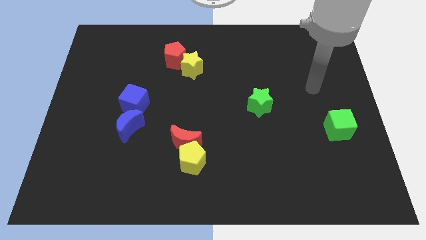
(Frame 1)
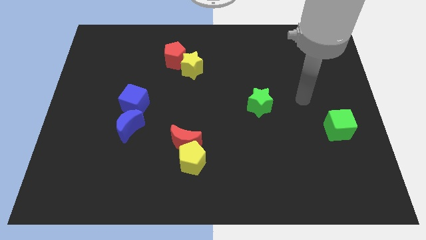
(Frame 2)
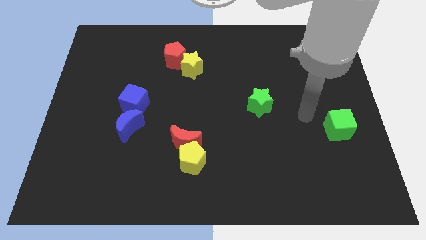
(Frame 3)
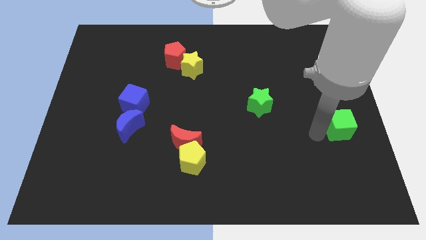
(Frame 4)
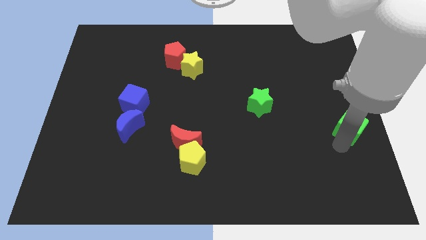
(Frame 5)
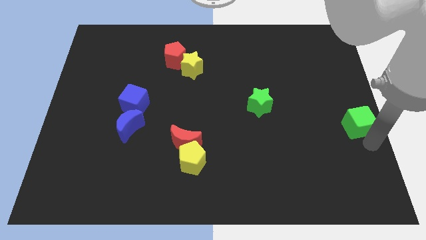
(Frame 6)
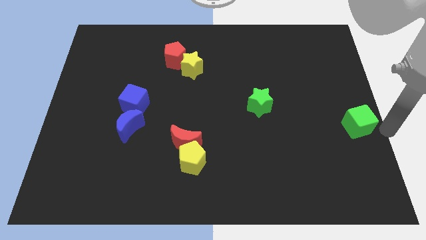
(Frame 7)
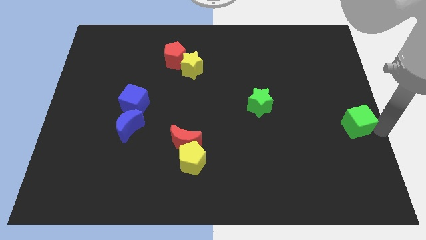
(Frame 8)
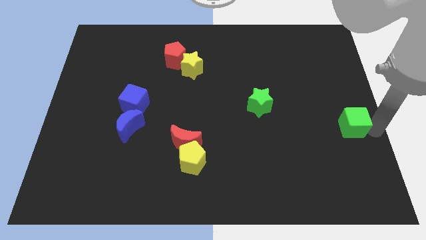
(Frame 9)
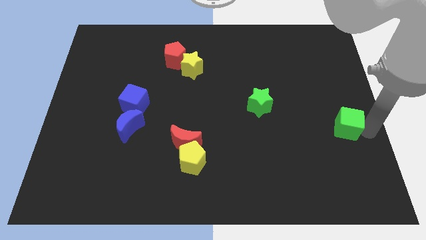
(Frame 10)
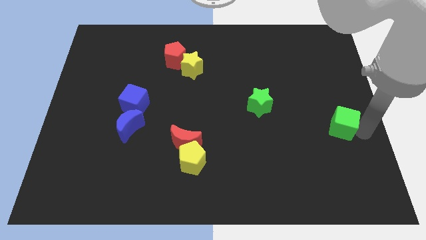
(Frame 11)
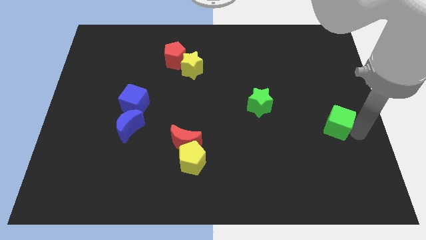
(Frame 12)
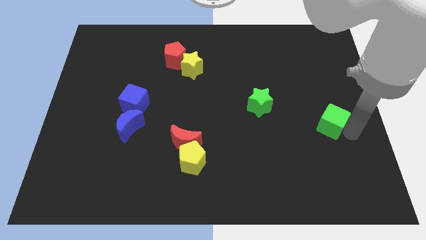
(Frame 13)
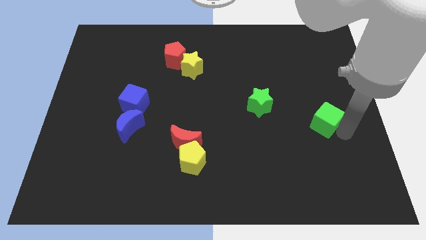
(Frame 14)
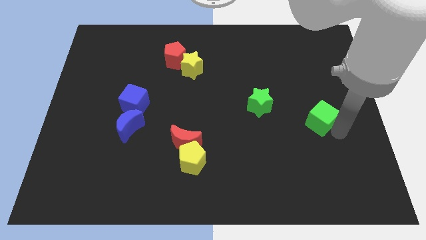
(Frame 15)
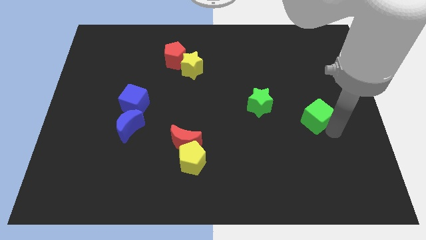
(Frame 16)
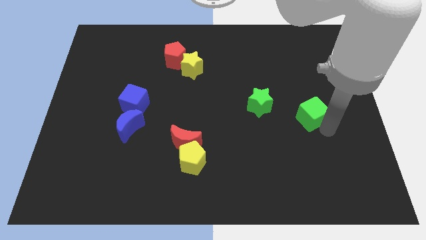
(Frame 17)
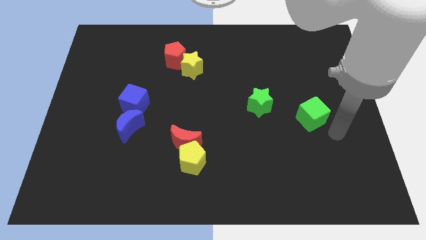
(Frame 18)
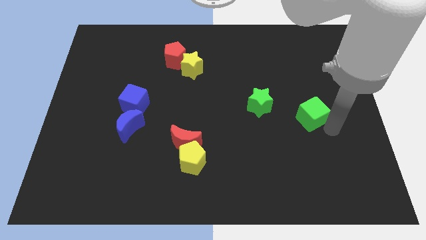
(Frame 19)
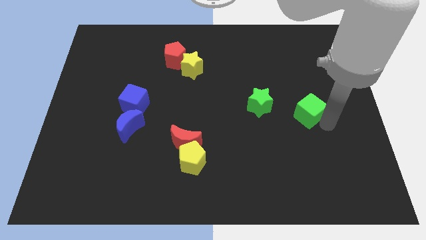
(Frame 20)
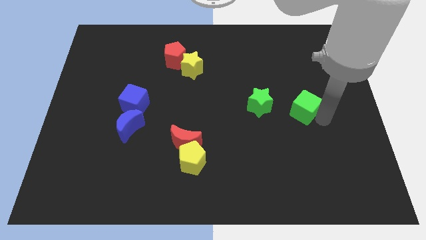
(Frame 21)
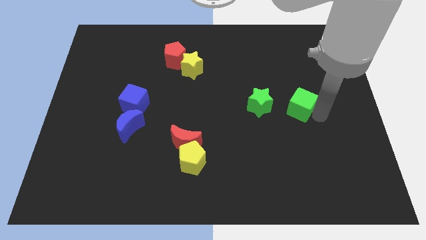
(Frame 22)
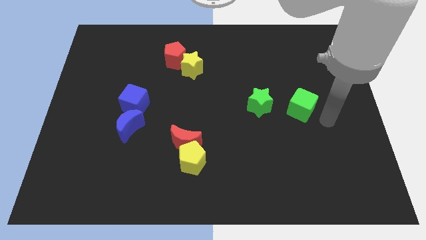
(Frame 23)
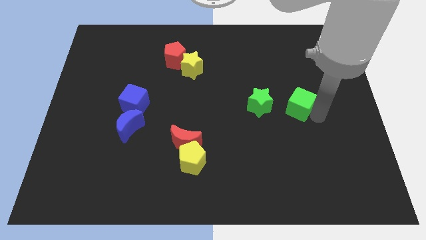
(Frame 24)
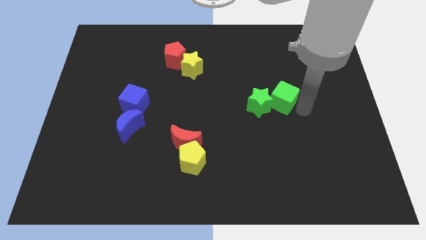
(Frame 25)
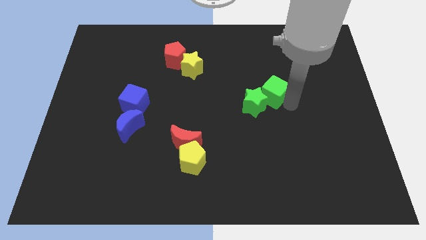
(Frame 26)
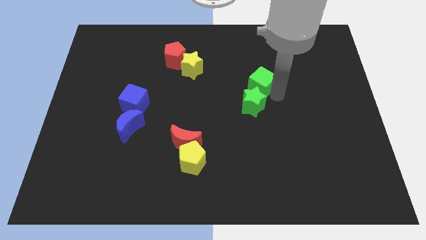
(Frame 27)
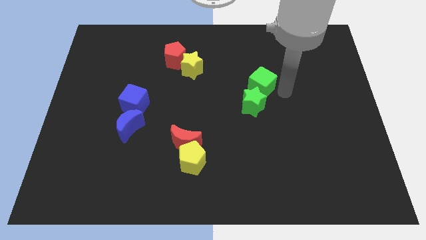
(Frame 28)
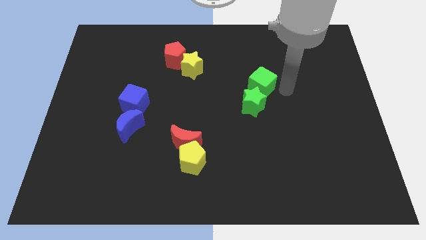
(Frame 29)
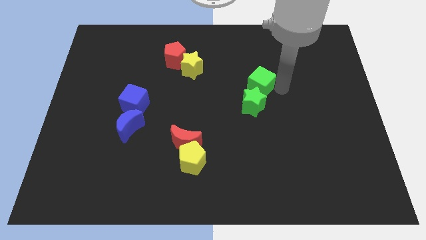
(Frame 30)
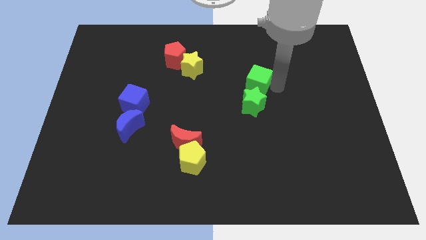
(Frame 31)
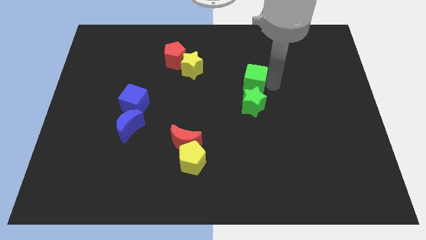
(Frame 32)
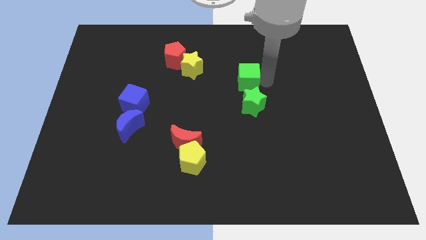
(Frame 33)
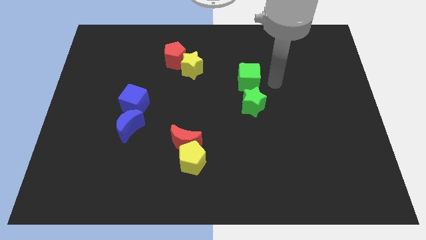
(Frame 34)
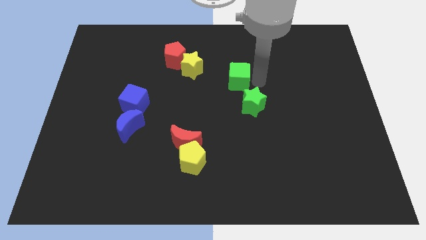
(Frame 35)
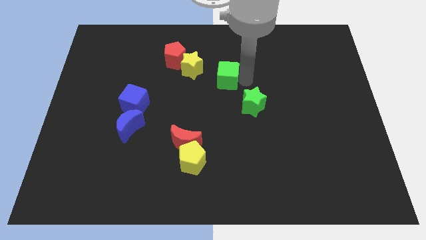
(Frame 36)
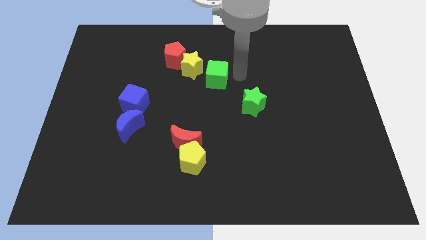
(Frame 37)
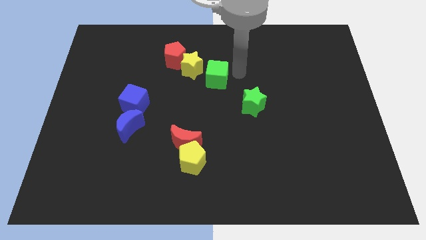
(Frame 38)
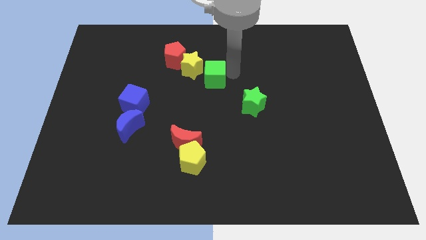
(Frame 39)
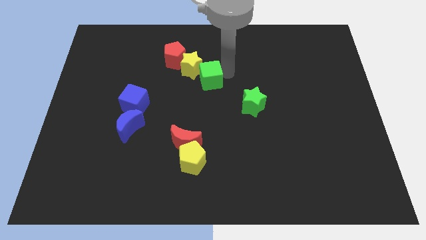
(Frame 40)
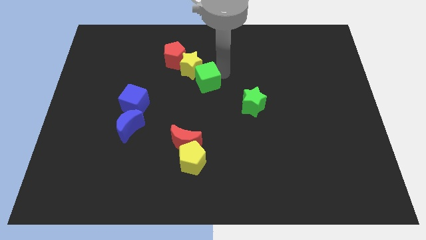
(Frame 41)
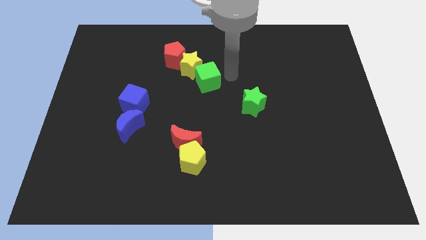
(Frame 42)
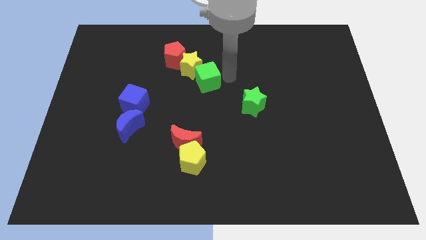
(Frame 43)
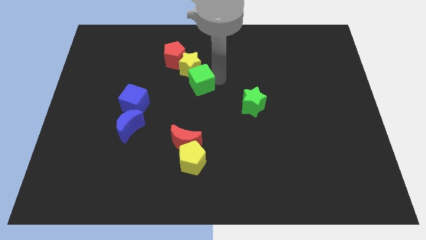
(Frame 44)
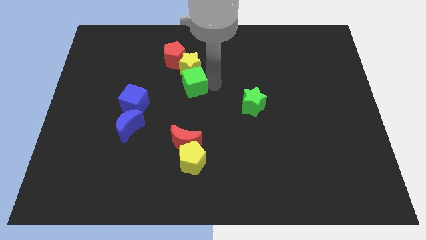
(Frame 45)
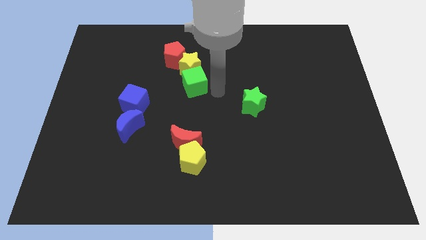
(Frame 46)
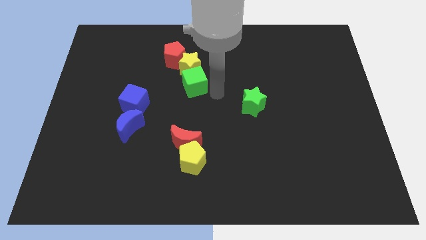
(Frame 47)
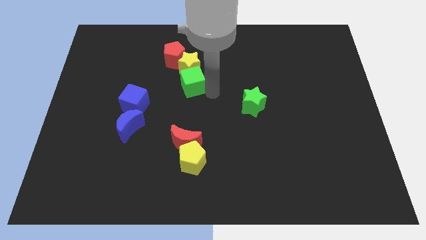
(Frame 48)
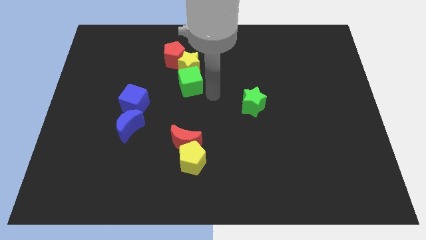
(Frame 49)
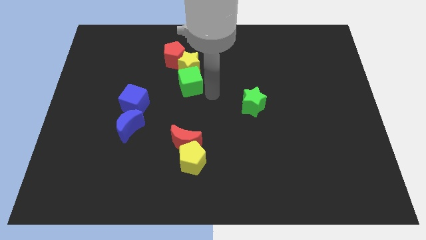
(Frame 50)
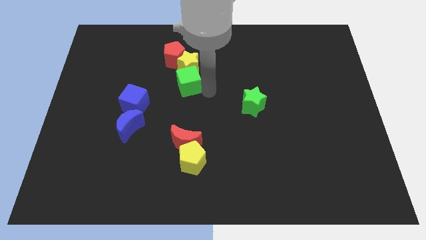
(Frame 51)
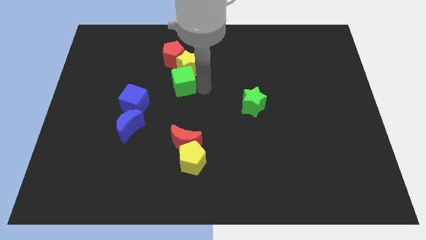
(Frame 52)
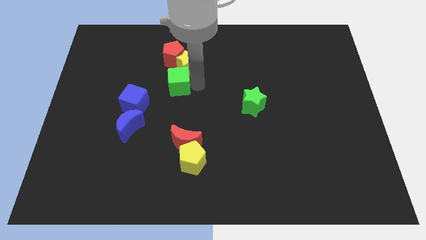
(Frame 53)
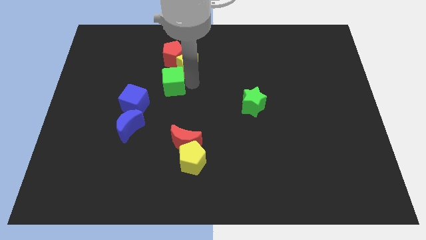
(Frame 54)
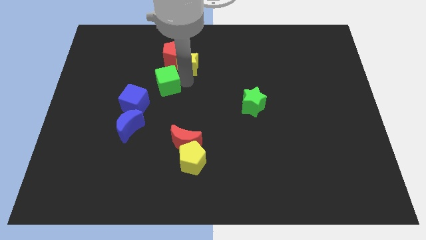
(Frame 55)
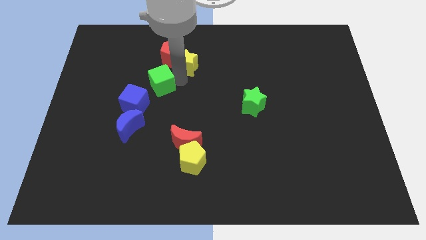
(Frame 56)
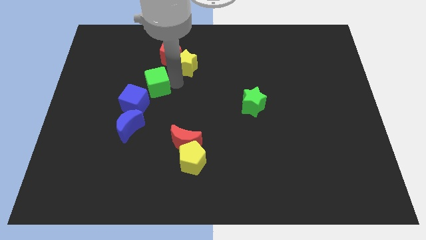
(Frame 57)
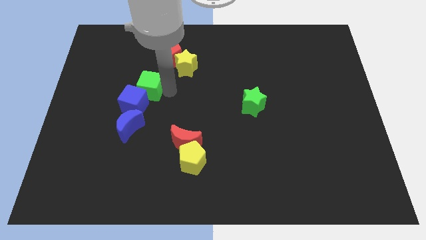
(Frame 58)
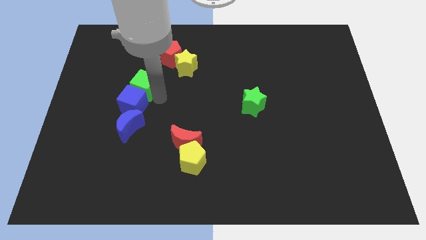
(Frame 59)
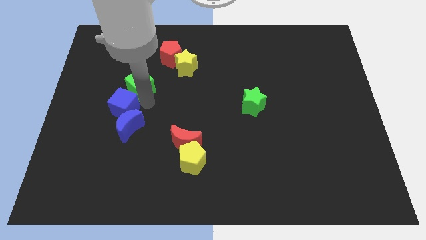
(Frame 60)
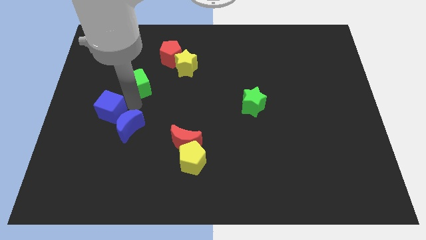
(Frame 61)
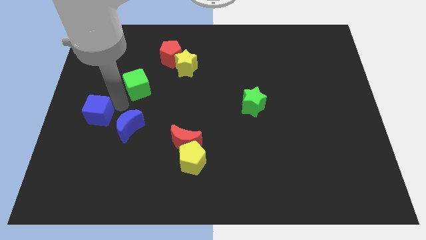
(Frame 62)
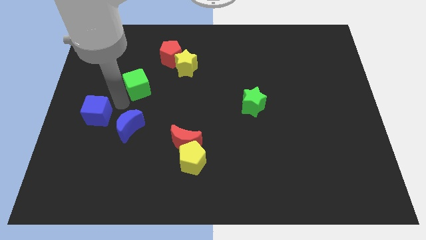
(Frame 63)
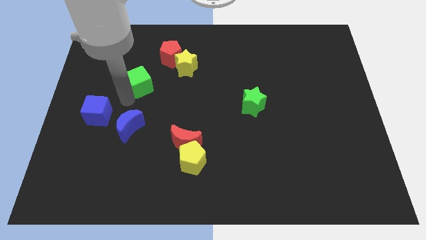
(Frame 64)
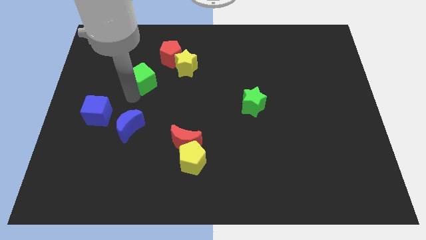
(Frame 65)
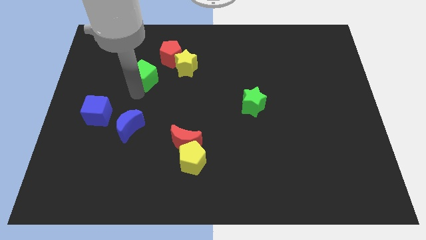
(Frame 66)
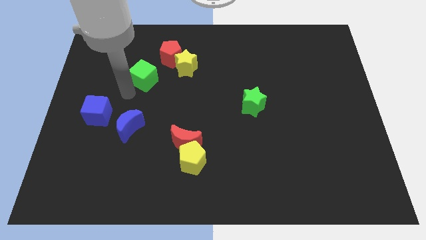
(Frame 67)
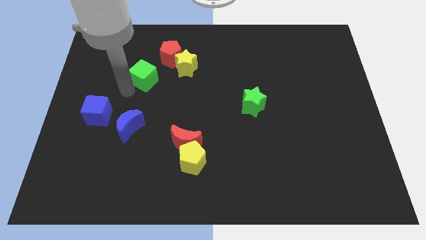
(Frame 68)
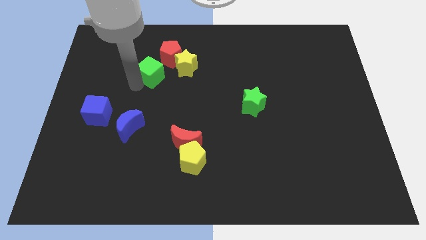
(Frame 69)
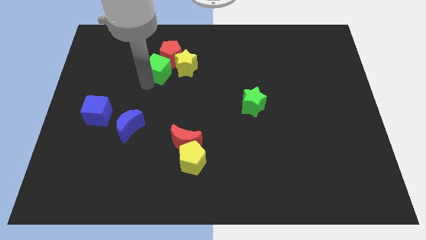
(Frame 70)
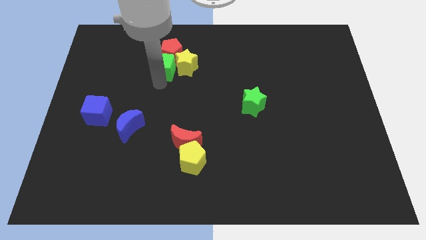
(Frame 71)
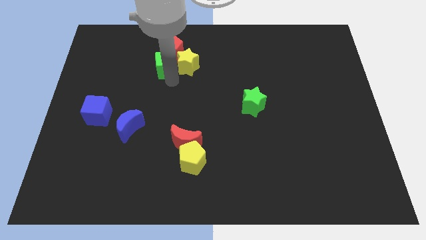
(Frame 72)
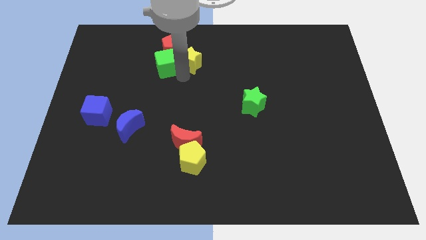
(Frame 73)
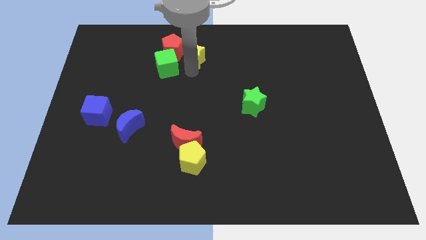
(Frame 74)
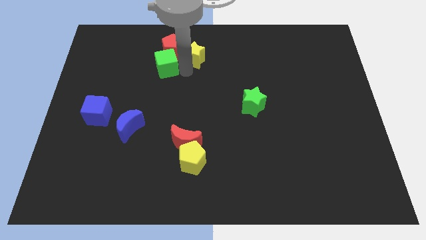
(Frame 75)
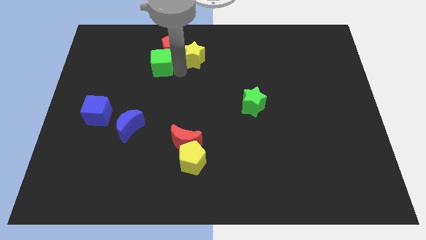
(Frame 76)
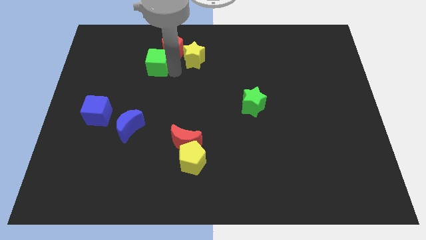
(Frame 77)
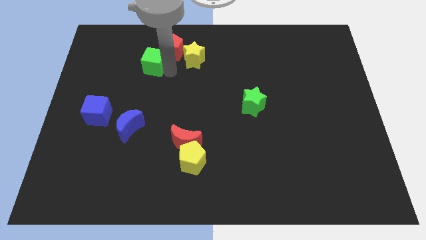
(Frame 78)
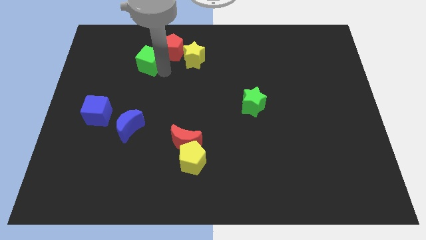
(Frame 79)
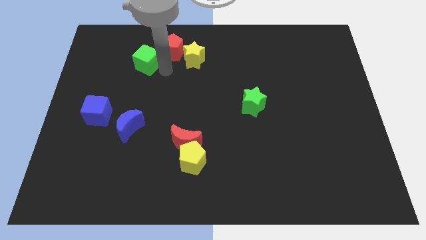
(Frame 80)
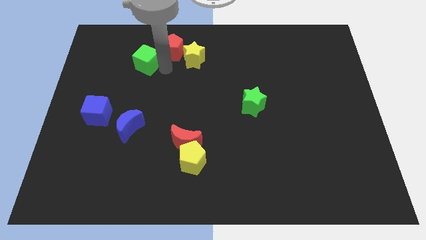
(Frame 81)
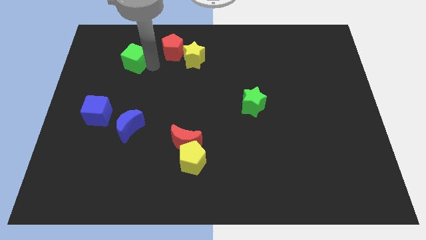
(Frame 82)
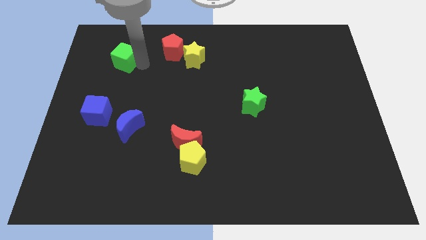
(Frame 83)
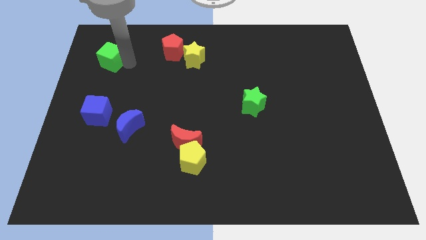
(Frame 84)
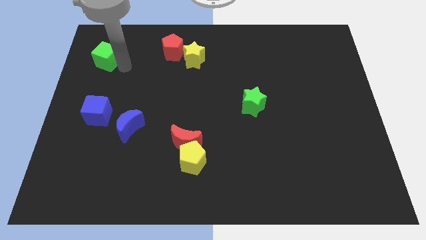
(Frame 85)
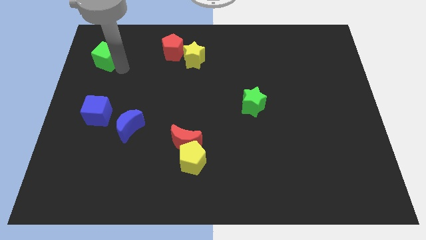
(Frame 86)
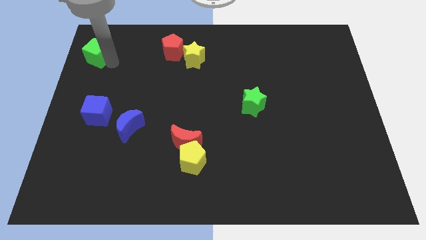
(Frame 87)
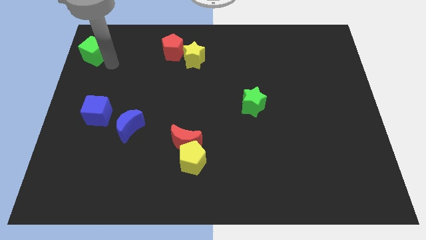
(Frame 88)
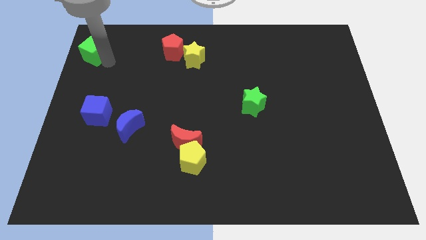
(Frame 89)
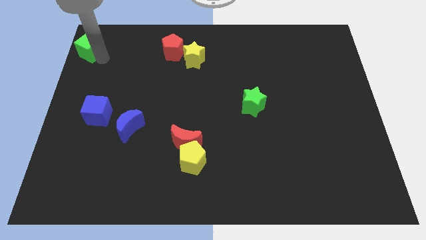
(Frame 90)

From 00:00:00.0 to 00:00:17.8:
put the green cube to the top left of the board
